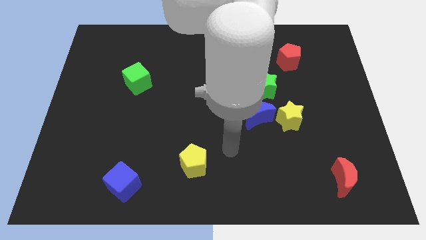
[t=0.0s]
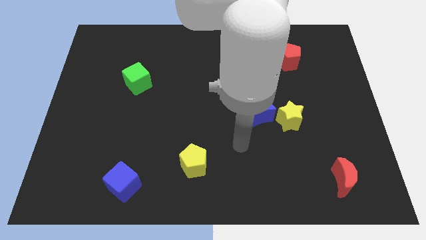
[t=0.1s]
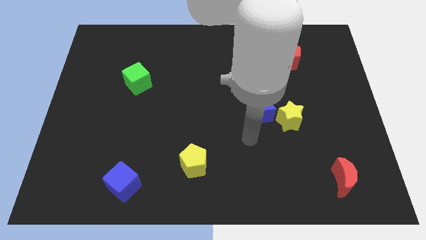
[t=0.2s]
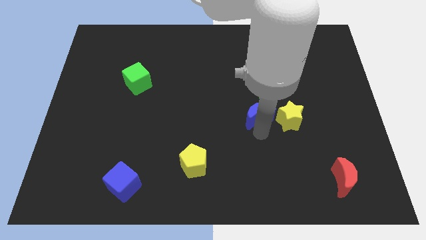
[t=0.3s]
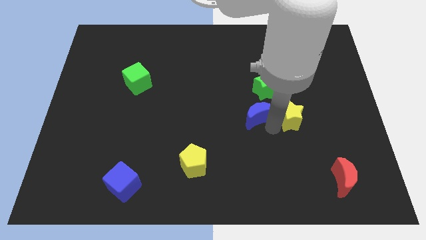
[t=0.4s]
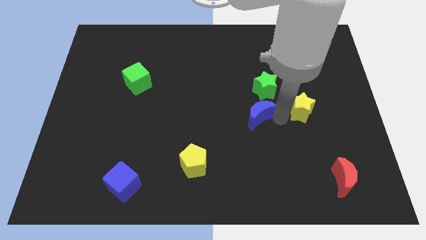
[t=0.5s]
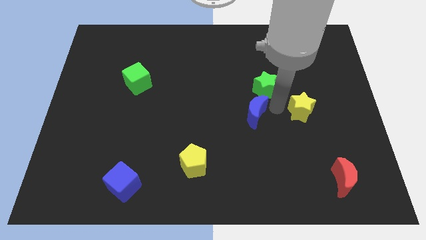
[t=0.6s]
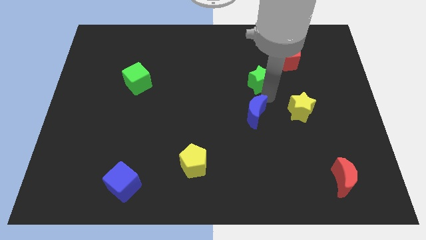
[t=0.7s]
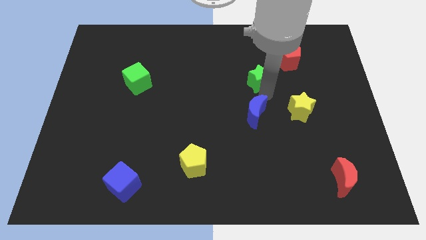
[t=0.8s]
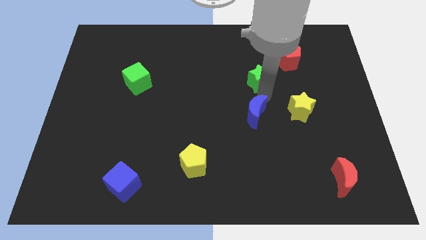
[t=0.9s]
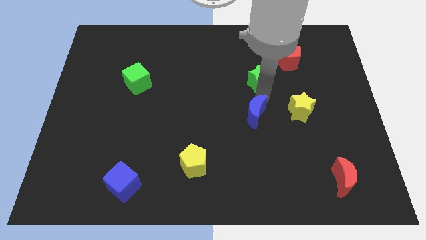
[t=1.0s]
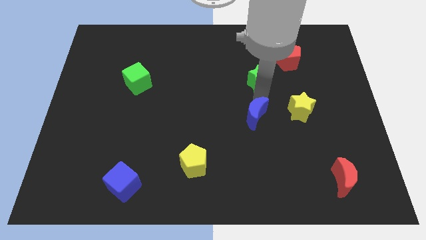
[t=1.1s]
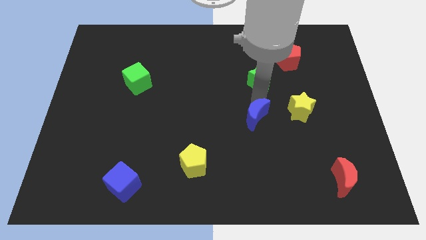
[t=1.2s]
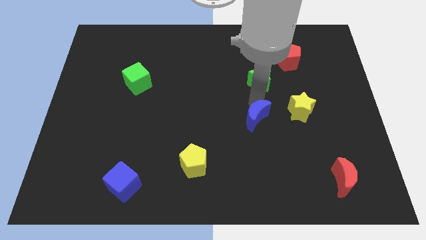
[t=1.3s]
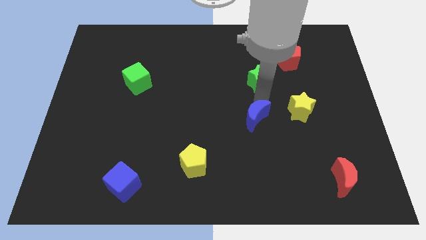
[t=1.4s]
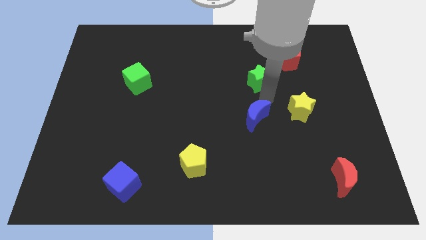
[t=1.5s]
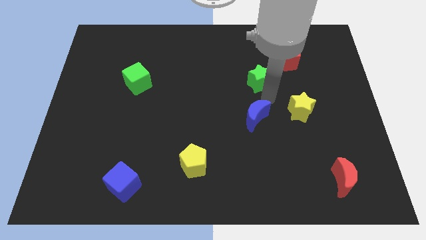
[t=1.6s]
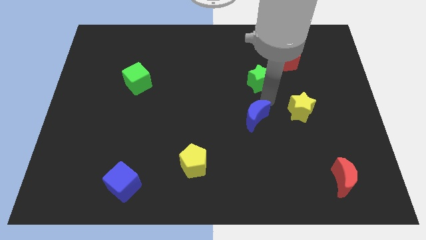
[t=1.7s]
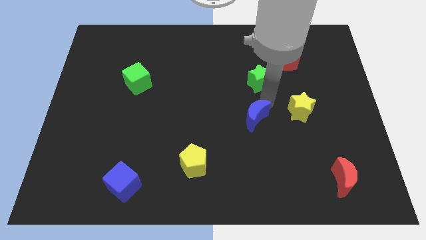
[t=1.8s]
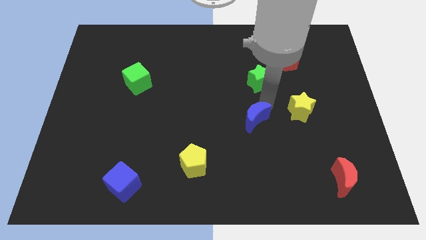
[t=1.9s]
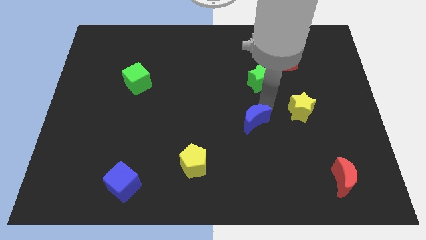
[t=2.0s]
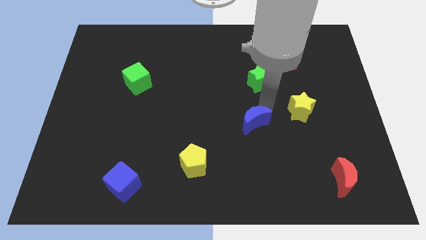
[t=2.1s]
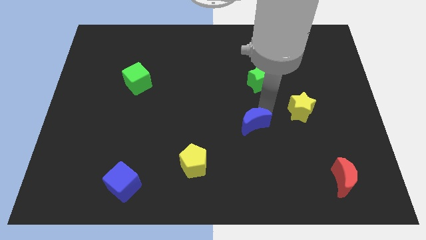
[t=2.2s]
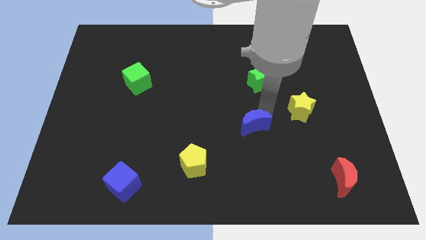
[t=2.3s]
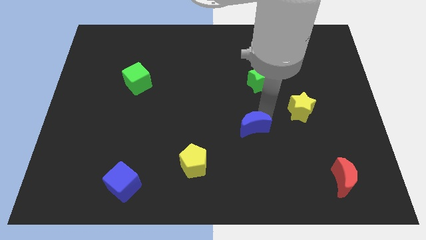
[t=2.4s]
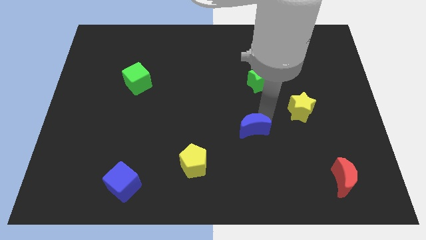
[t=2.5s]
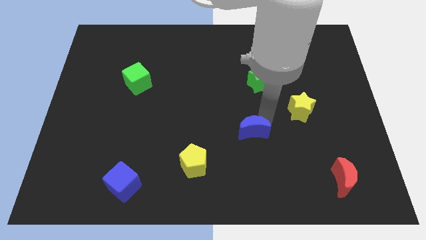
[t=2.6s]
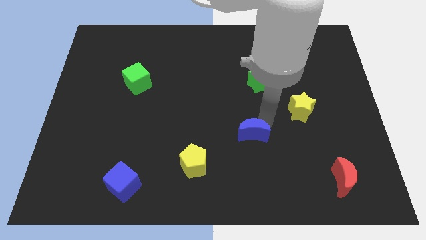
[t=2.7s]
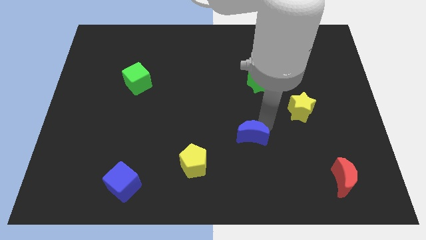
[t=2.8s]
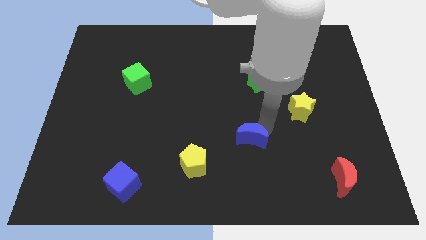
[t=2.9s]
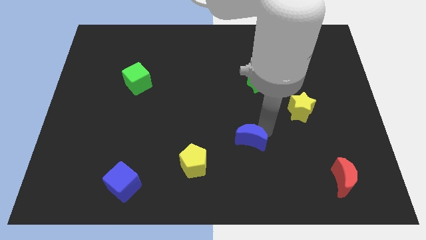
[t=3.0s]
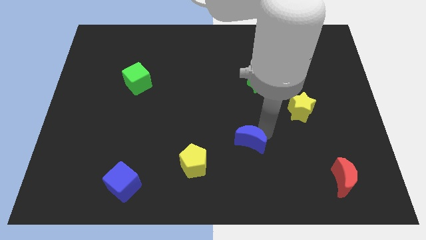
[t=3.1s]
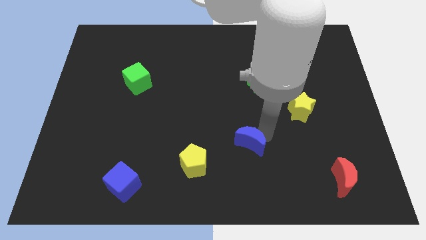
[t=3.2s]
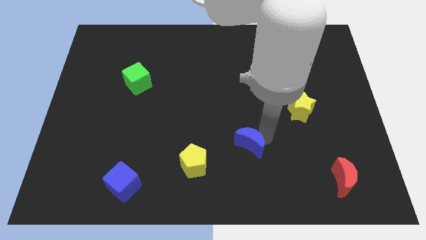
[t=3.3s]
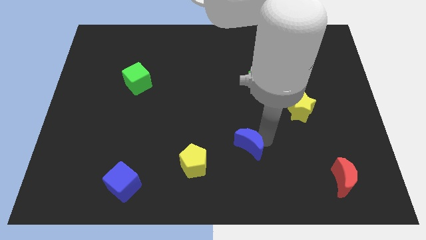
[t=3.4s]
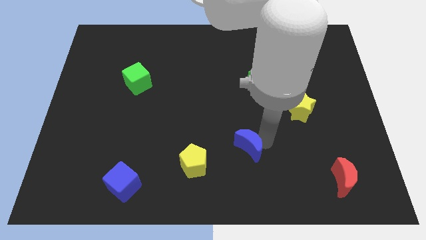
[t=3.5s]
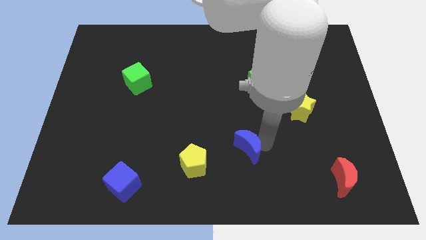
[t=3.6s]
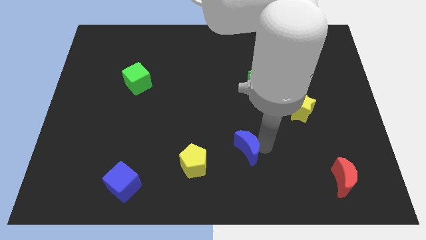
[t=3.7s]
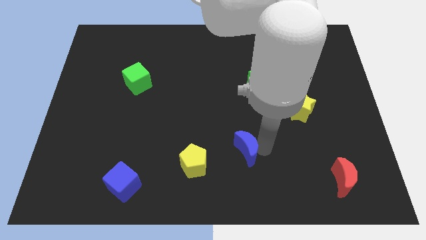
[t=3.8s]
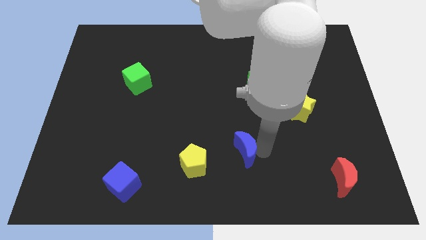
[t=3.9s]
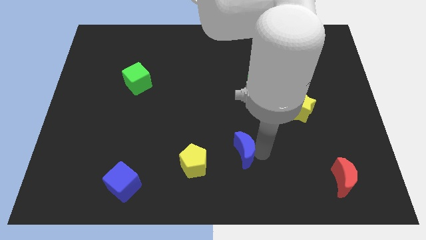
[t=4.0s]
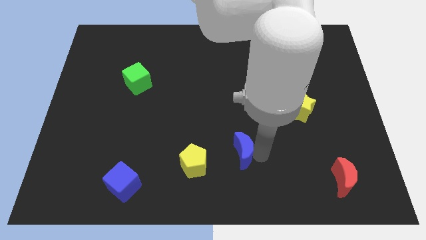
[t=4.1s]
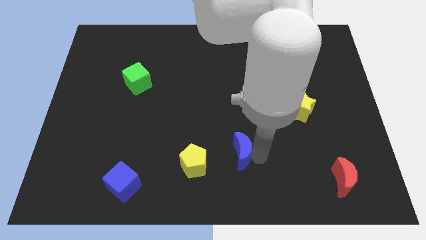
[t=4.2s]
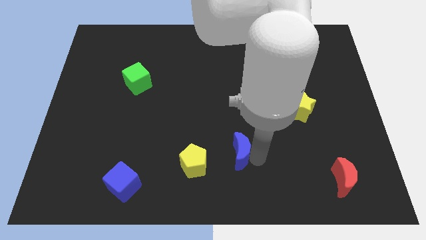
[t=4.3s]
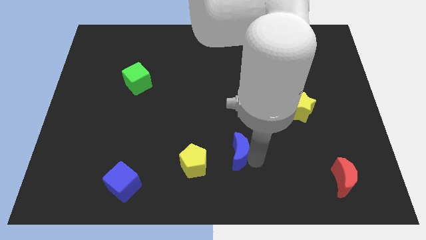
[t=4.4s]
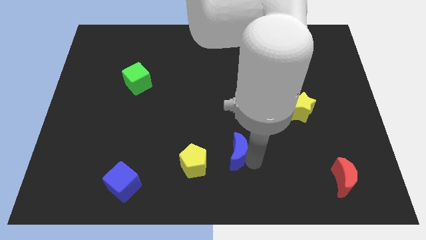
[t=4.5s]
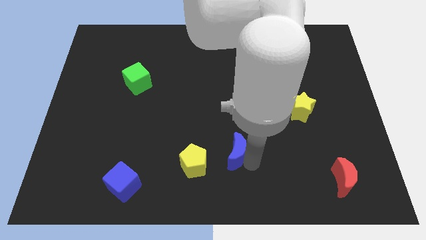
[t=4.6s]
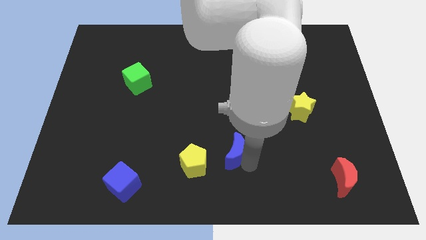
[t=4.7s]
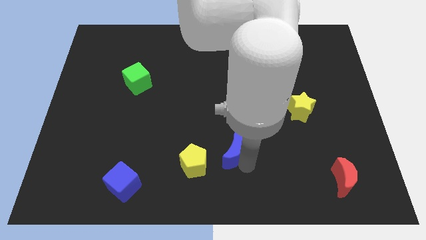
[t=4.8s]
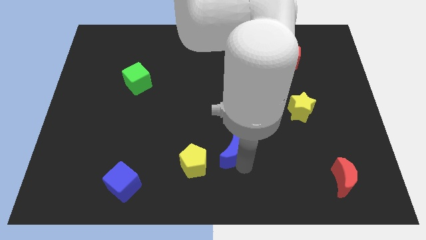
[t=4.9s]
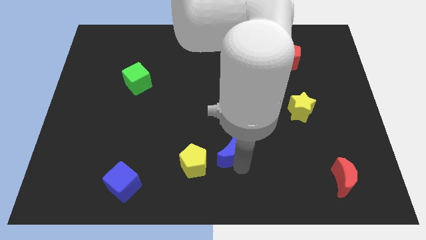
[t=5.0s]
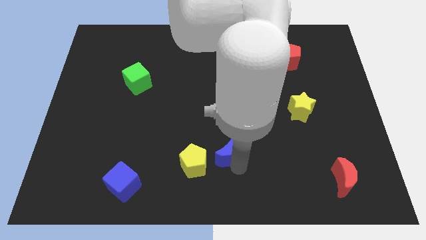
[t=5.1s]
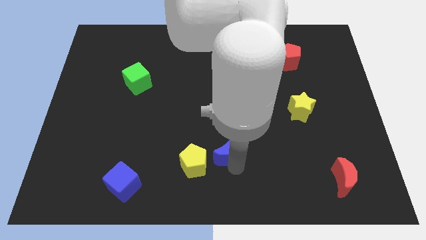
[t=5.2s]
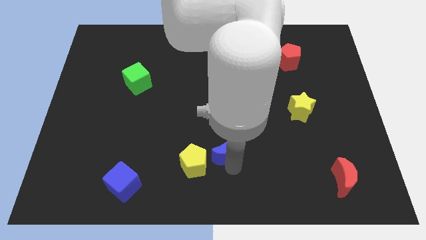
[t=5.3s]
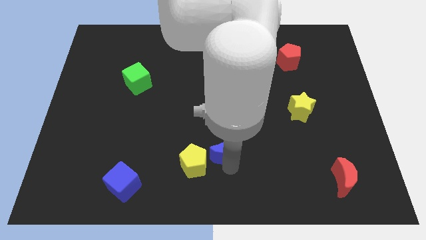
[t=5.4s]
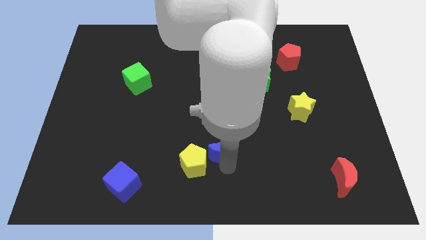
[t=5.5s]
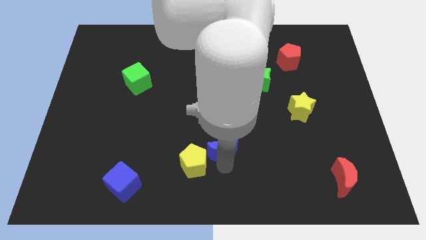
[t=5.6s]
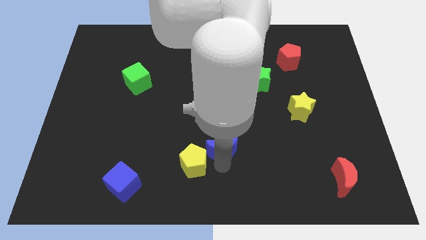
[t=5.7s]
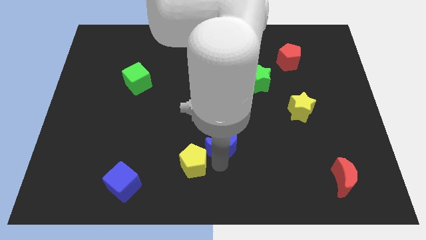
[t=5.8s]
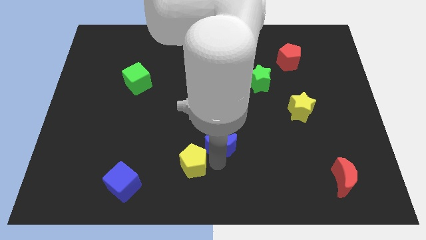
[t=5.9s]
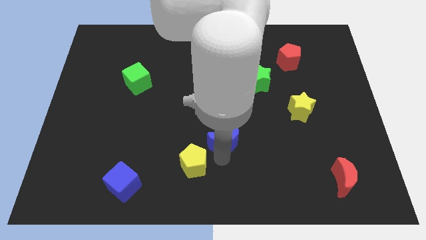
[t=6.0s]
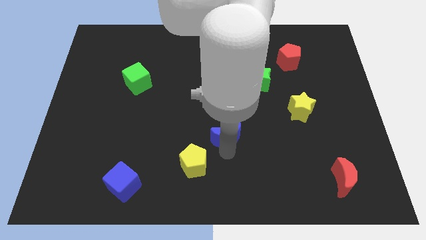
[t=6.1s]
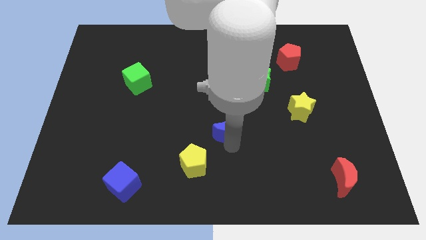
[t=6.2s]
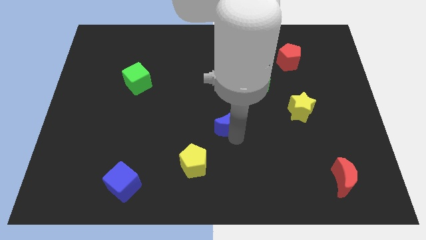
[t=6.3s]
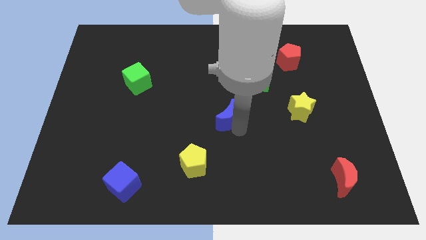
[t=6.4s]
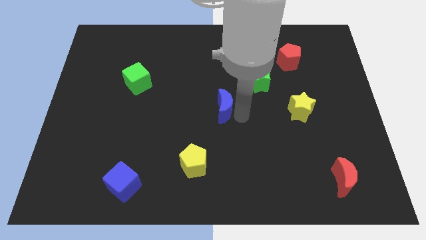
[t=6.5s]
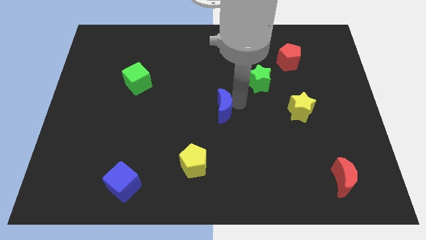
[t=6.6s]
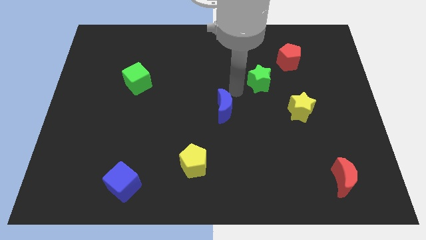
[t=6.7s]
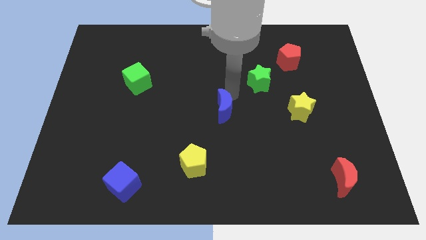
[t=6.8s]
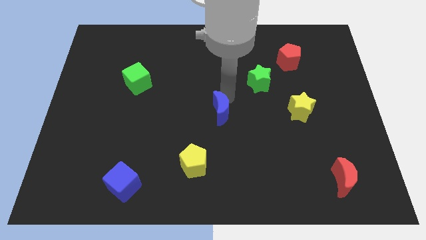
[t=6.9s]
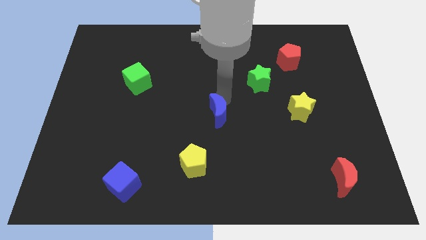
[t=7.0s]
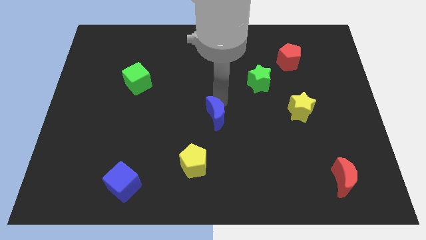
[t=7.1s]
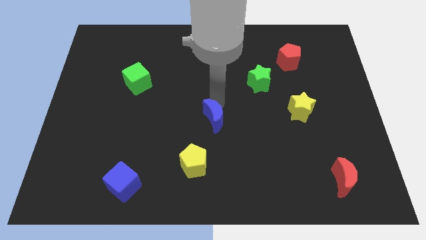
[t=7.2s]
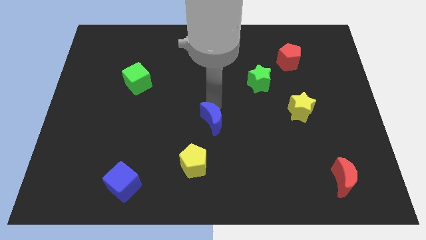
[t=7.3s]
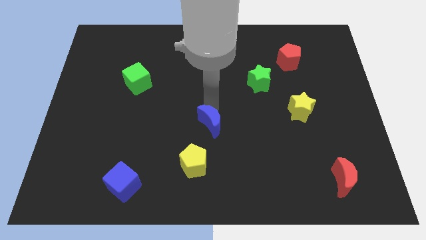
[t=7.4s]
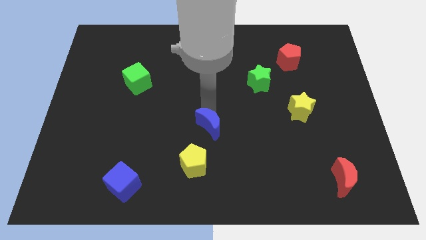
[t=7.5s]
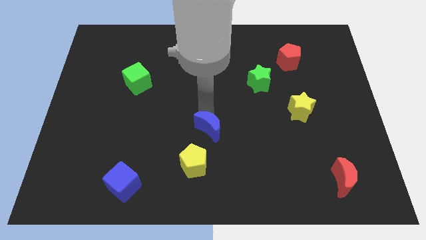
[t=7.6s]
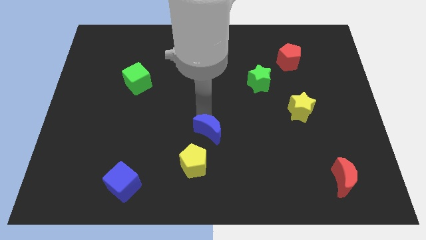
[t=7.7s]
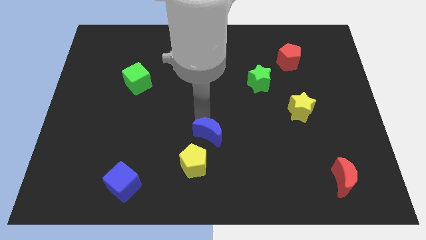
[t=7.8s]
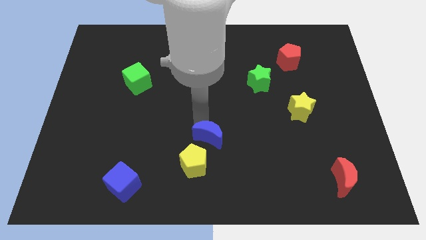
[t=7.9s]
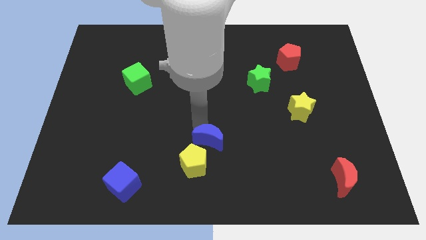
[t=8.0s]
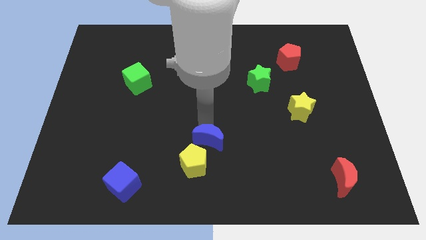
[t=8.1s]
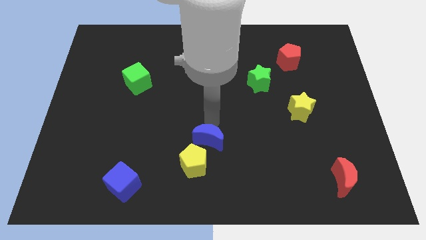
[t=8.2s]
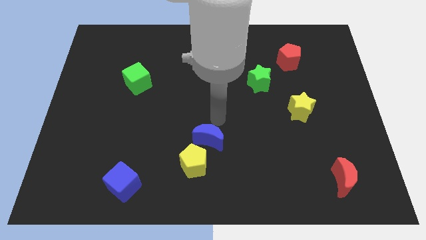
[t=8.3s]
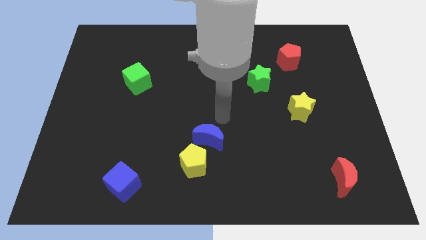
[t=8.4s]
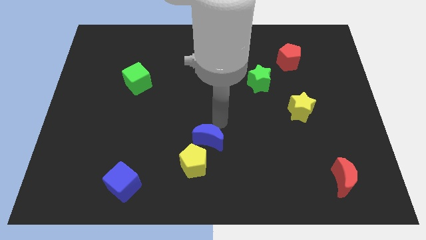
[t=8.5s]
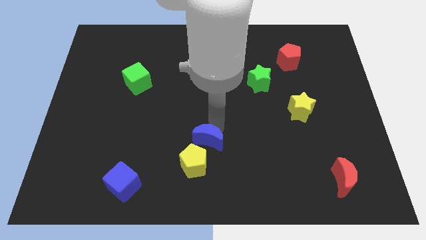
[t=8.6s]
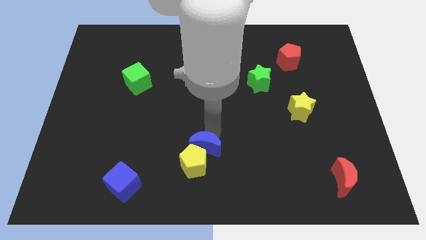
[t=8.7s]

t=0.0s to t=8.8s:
slide the blue moon close to the yellow pentagon
